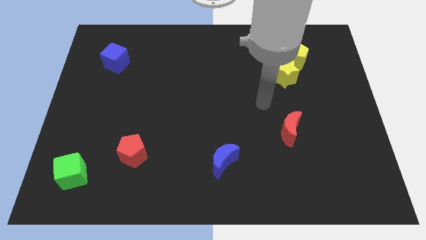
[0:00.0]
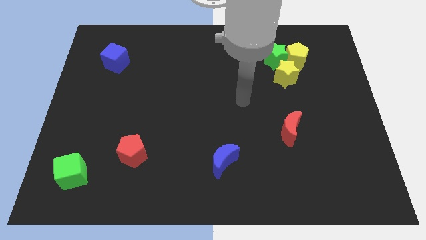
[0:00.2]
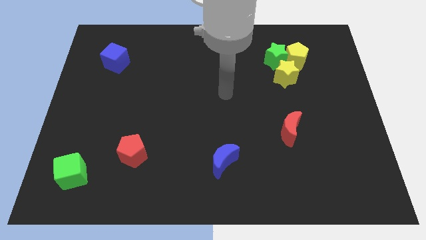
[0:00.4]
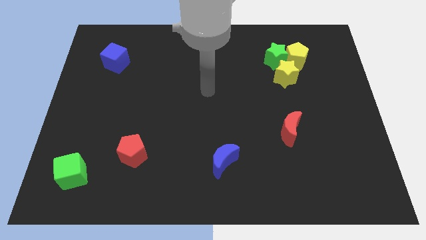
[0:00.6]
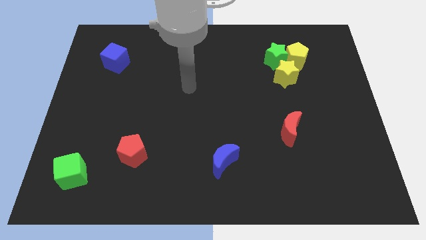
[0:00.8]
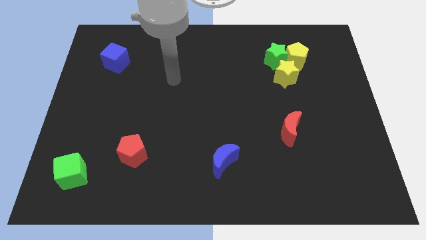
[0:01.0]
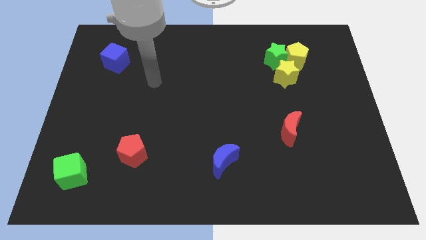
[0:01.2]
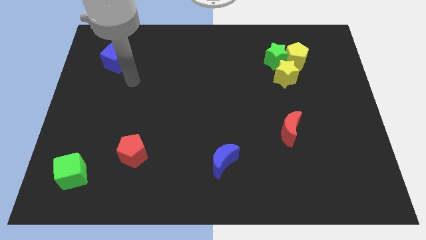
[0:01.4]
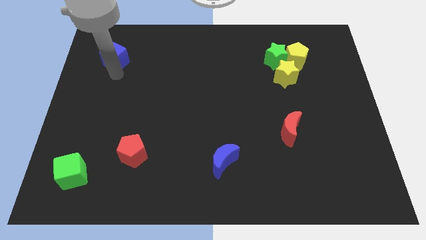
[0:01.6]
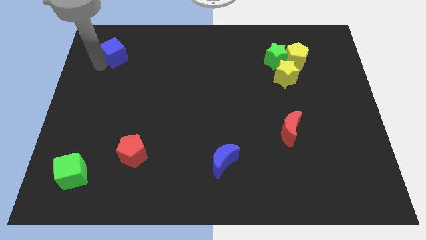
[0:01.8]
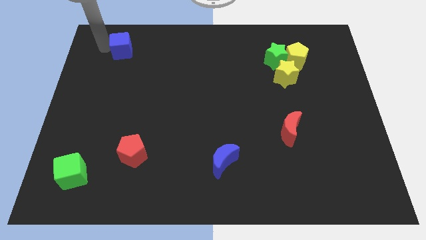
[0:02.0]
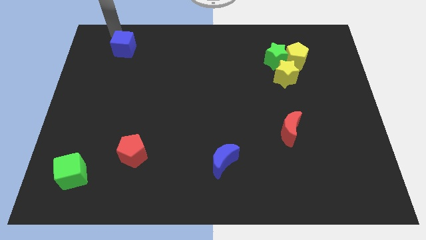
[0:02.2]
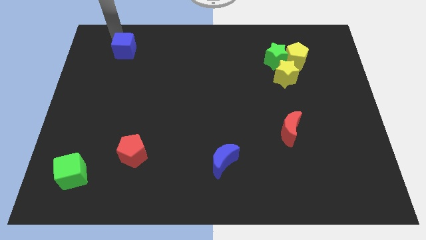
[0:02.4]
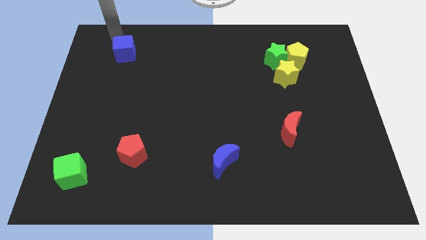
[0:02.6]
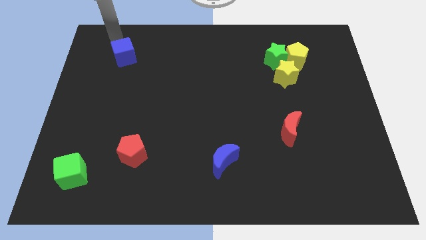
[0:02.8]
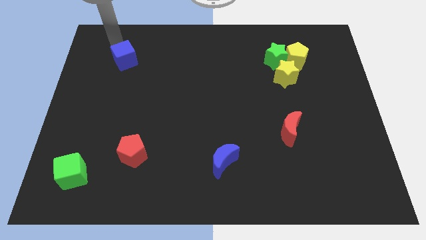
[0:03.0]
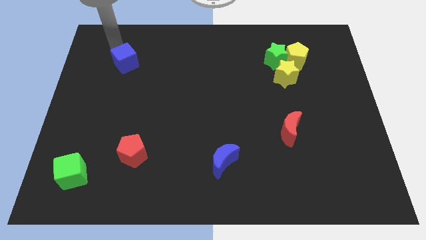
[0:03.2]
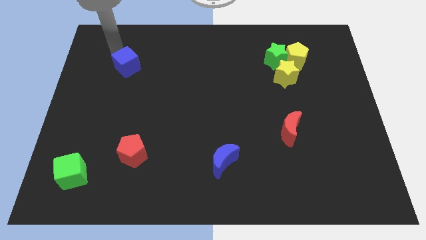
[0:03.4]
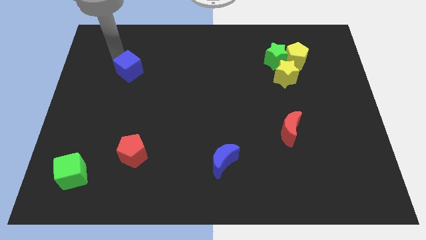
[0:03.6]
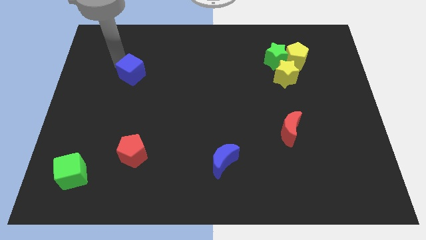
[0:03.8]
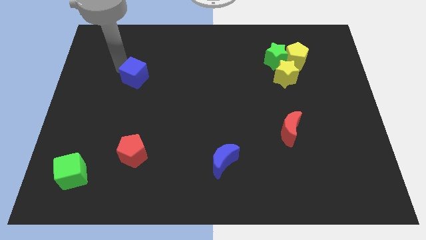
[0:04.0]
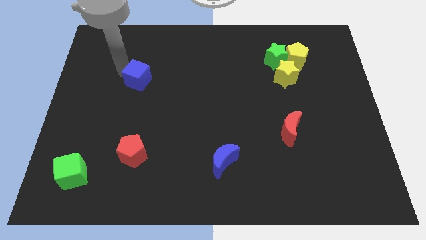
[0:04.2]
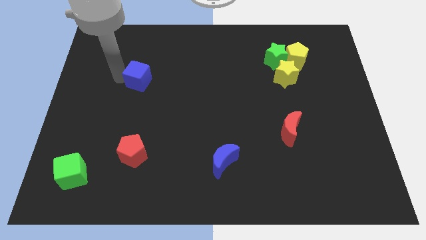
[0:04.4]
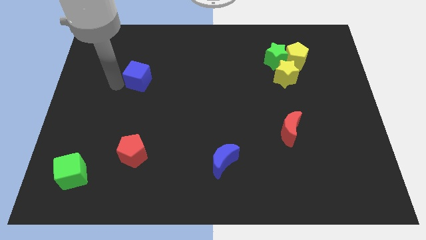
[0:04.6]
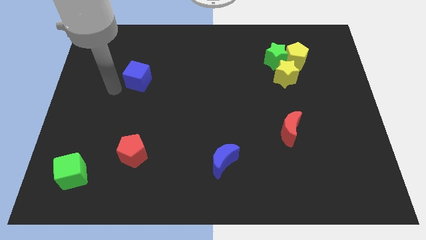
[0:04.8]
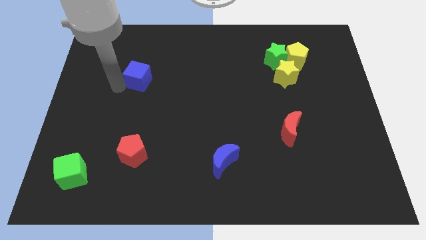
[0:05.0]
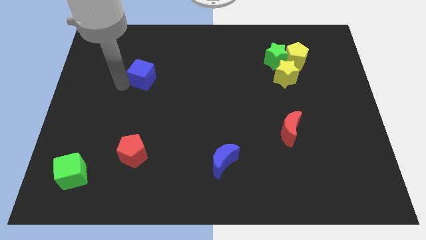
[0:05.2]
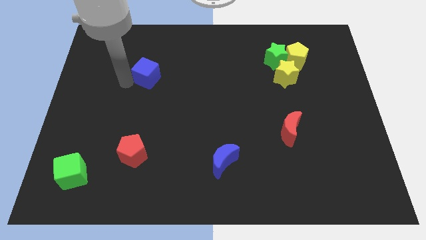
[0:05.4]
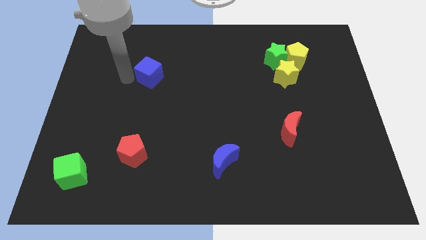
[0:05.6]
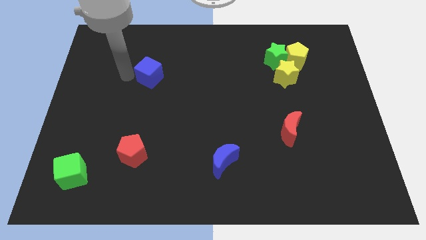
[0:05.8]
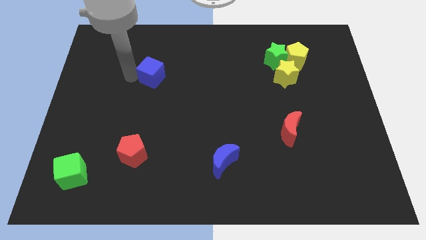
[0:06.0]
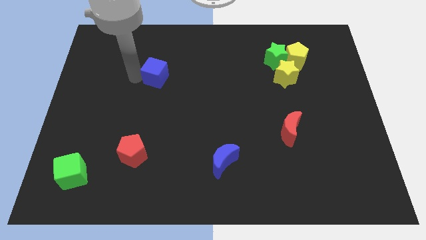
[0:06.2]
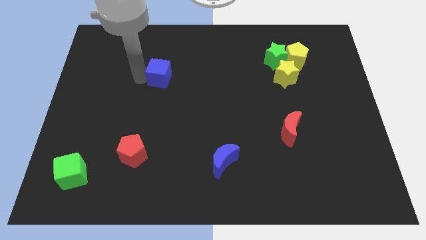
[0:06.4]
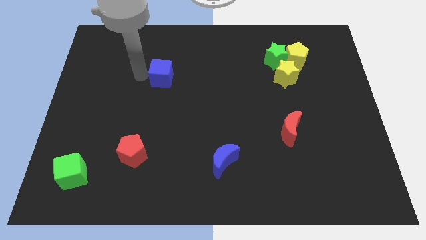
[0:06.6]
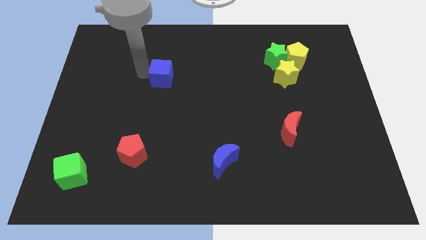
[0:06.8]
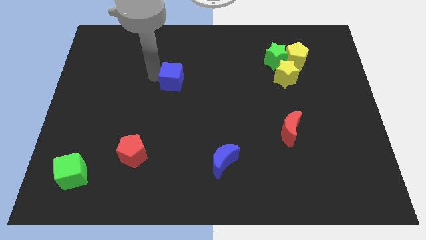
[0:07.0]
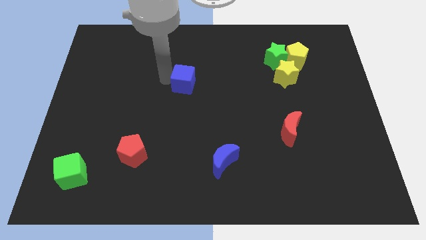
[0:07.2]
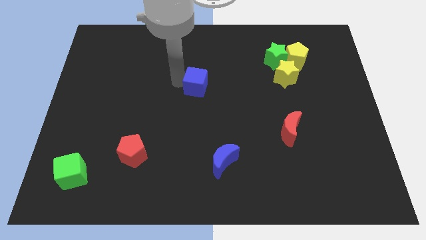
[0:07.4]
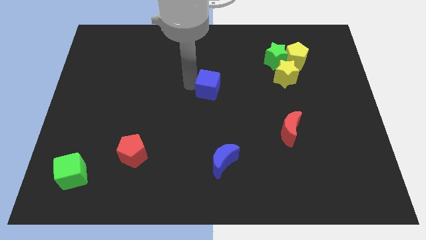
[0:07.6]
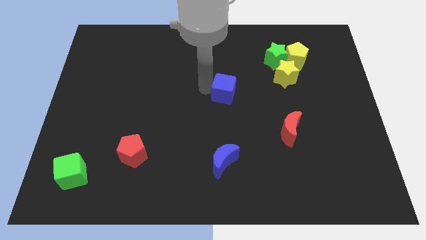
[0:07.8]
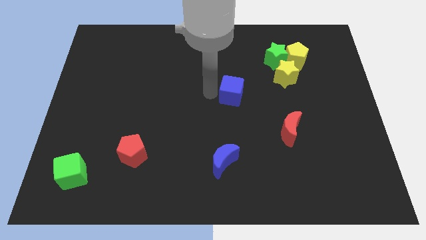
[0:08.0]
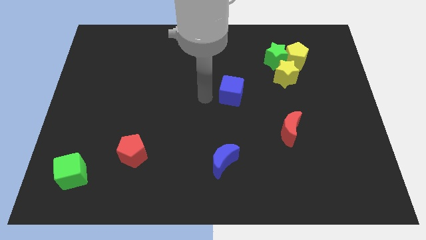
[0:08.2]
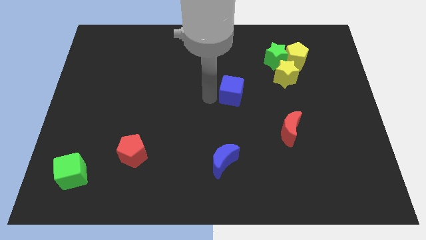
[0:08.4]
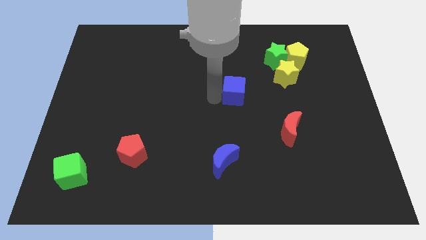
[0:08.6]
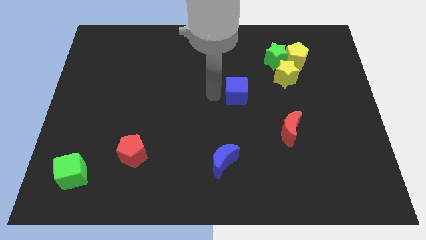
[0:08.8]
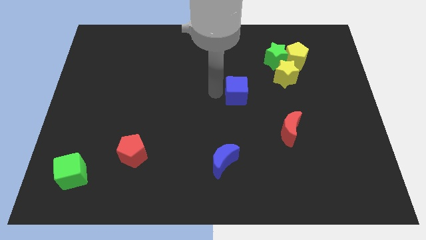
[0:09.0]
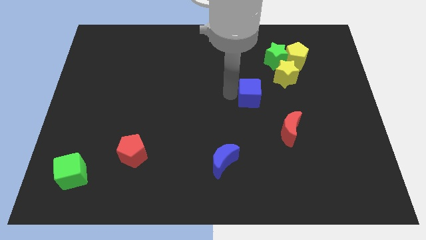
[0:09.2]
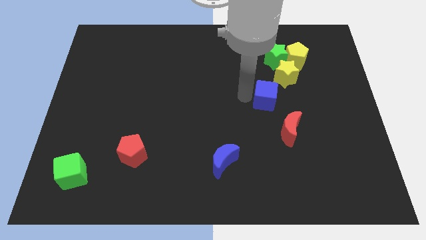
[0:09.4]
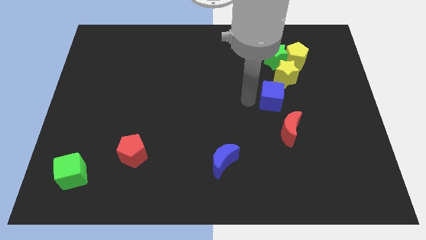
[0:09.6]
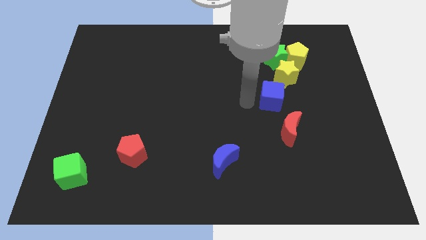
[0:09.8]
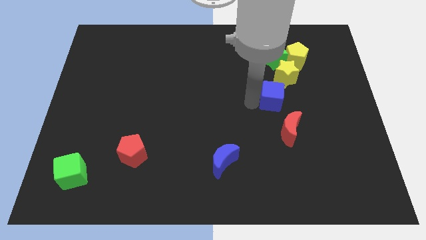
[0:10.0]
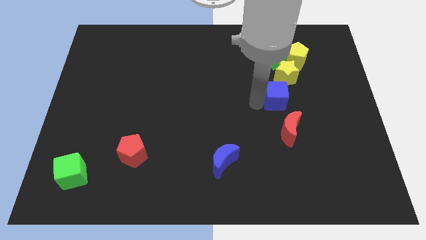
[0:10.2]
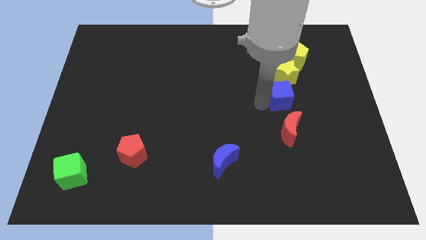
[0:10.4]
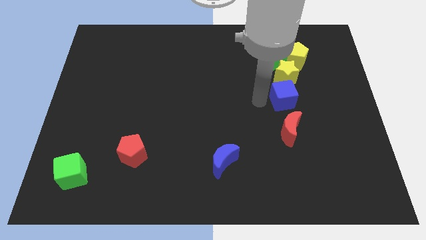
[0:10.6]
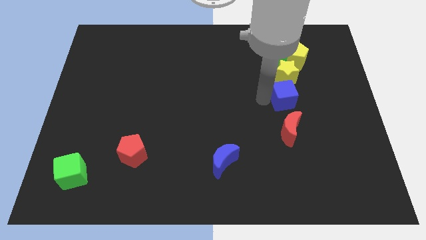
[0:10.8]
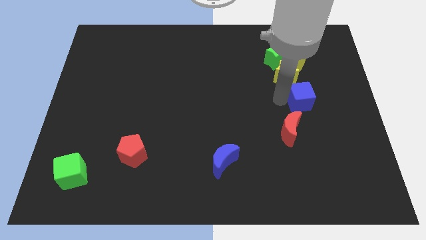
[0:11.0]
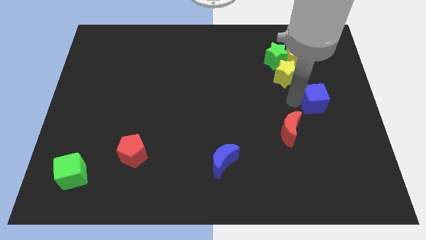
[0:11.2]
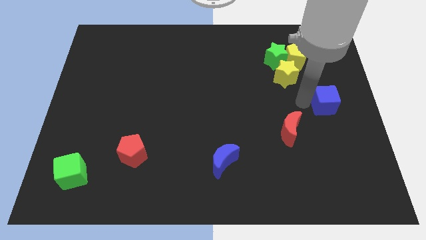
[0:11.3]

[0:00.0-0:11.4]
move the blue cube to the center right
